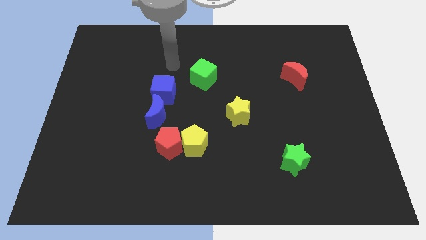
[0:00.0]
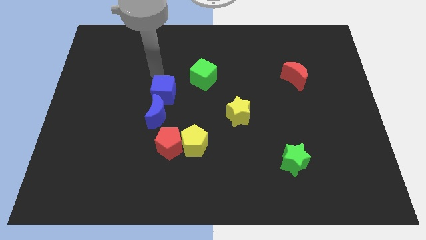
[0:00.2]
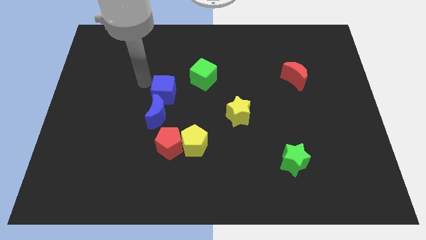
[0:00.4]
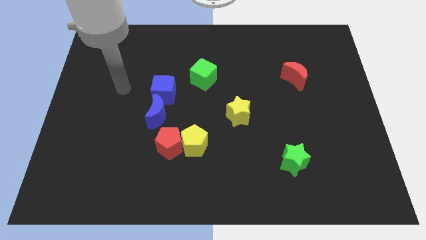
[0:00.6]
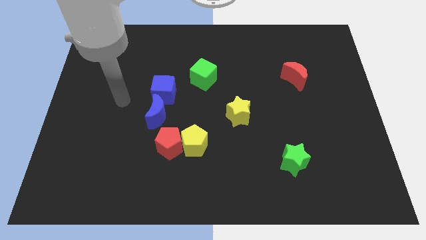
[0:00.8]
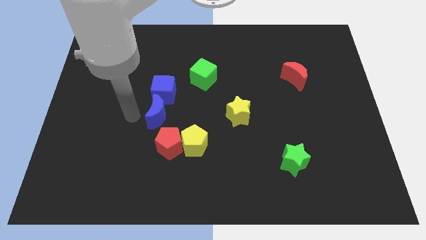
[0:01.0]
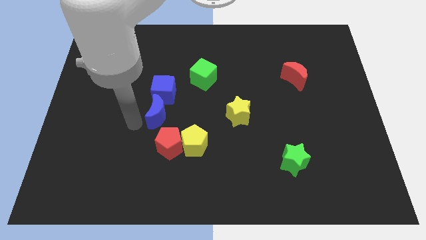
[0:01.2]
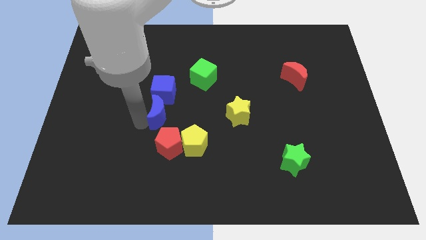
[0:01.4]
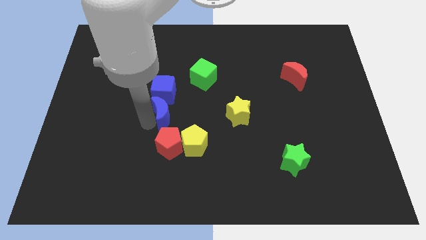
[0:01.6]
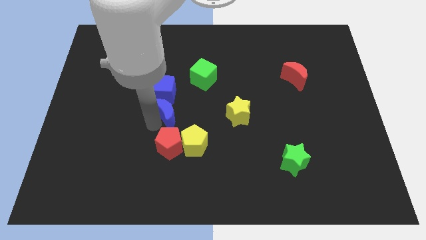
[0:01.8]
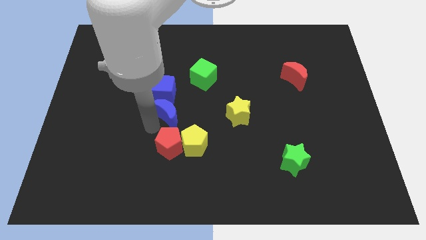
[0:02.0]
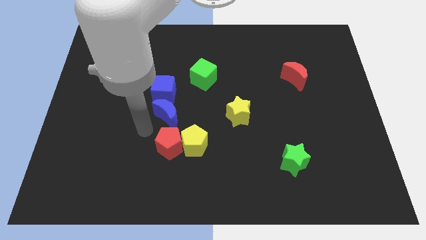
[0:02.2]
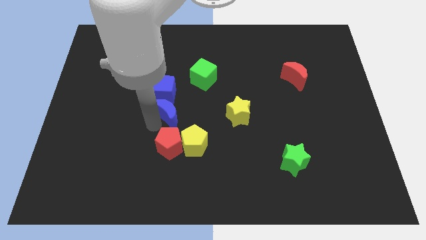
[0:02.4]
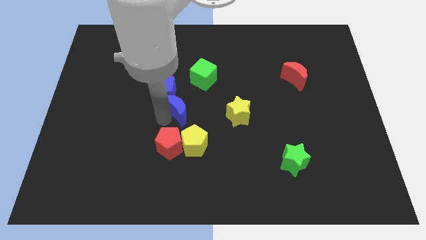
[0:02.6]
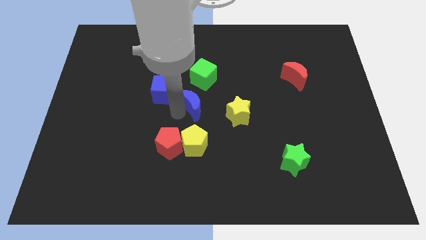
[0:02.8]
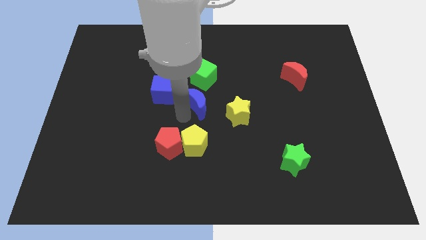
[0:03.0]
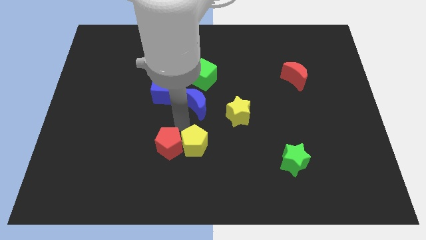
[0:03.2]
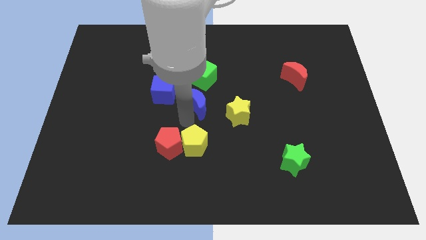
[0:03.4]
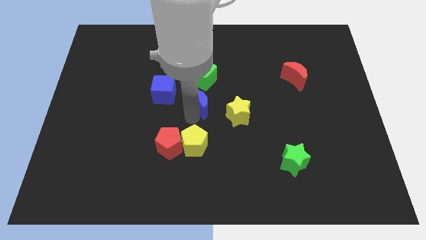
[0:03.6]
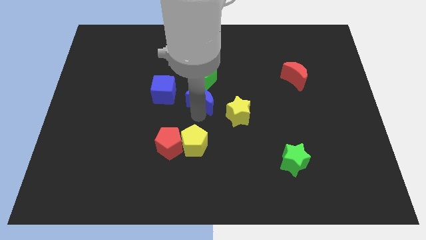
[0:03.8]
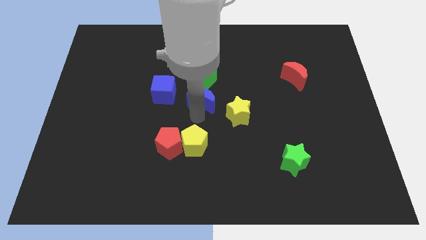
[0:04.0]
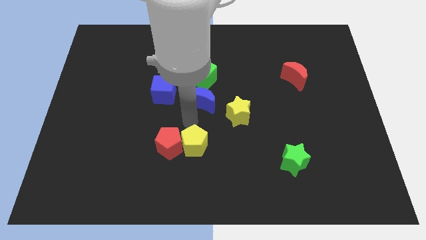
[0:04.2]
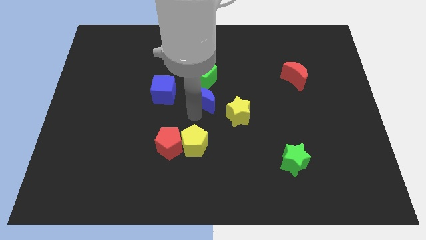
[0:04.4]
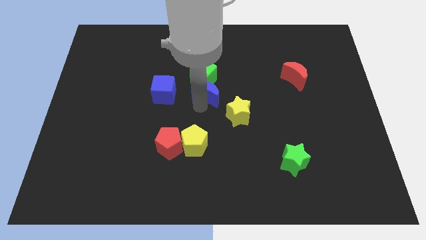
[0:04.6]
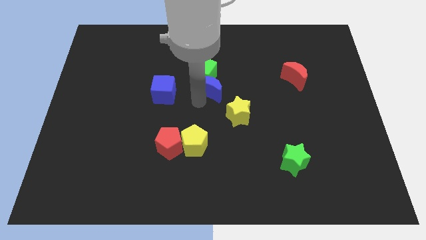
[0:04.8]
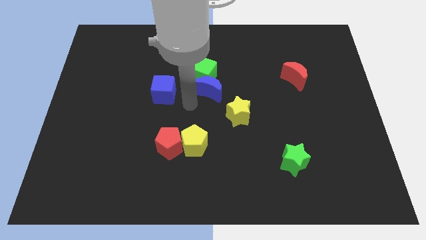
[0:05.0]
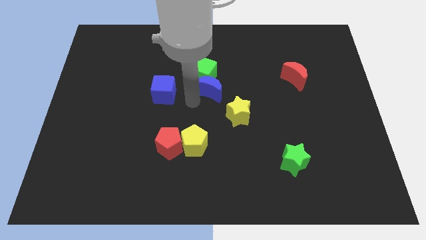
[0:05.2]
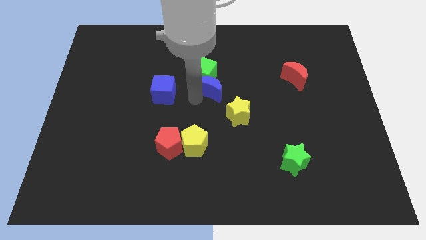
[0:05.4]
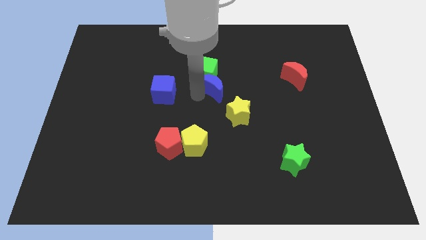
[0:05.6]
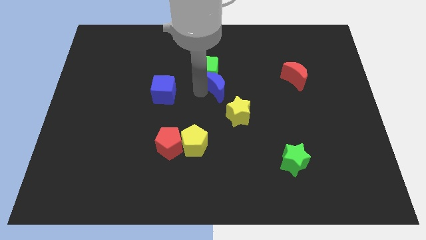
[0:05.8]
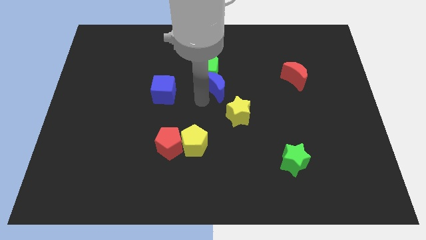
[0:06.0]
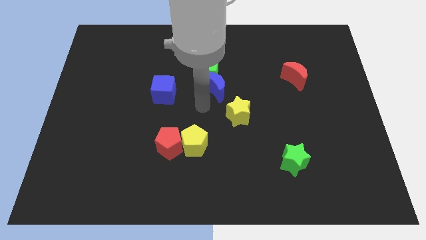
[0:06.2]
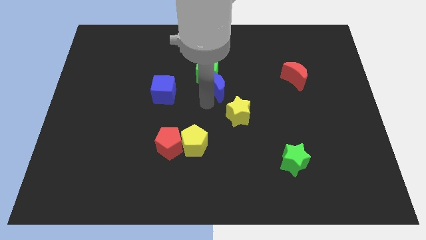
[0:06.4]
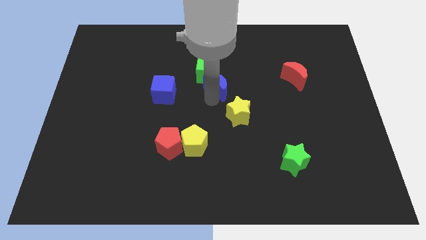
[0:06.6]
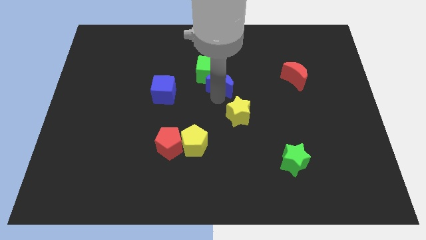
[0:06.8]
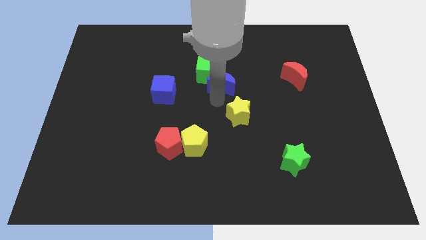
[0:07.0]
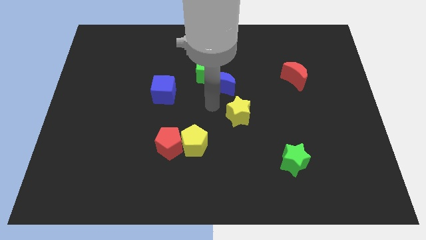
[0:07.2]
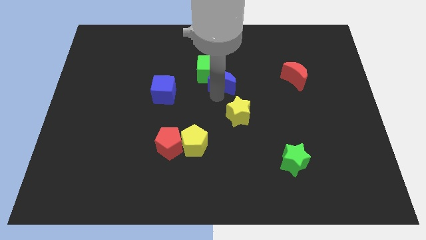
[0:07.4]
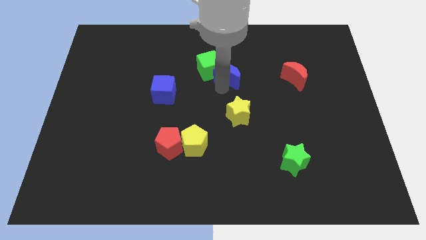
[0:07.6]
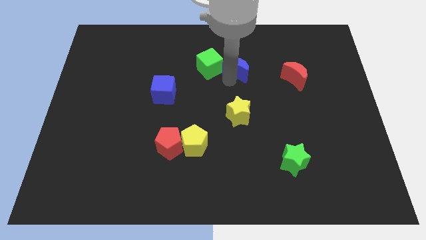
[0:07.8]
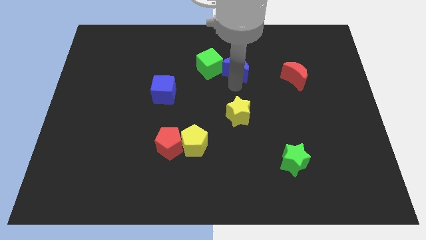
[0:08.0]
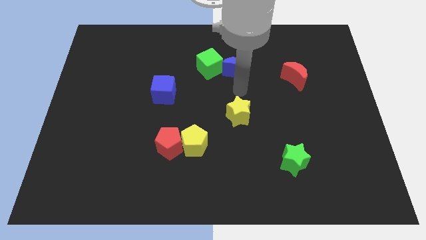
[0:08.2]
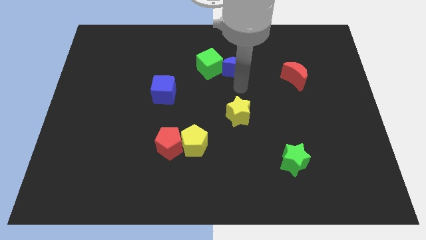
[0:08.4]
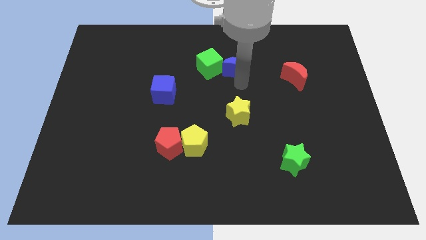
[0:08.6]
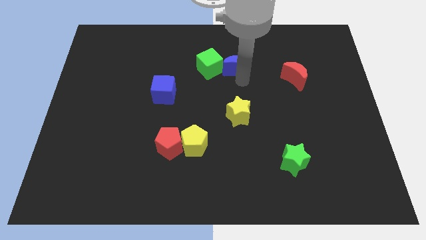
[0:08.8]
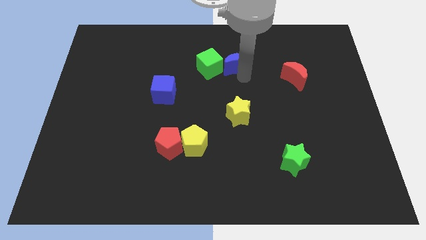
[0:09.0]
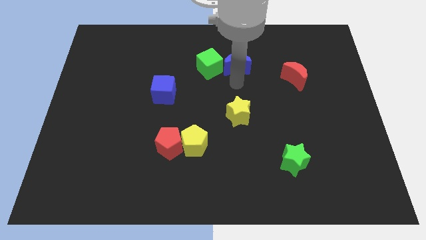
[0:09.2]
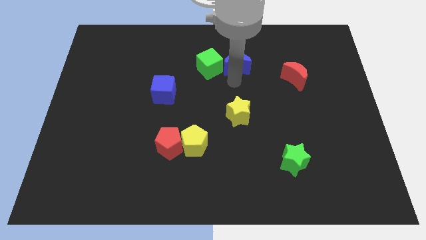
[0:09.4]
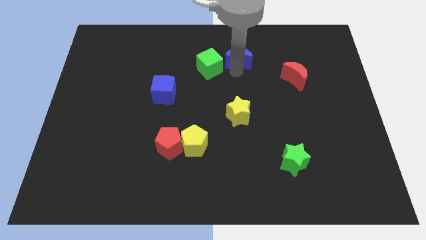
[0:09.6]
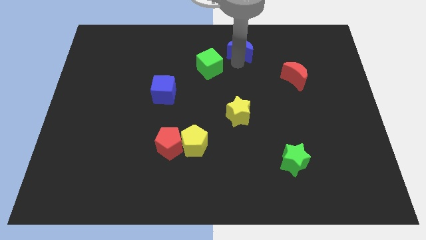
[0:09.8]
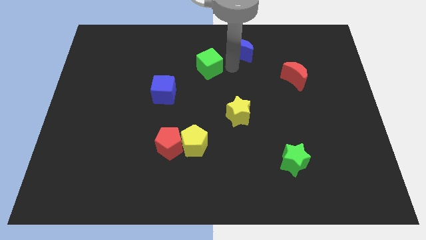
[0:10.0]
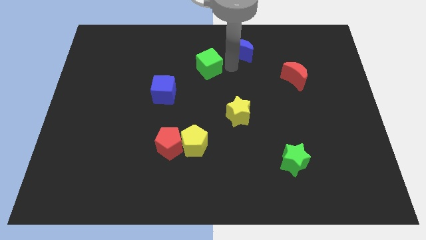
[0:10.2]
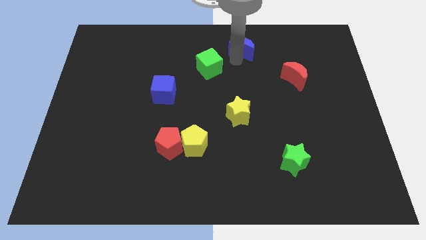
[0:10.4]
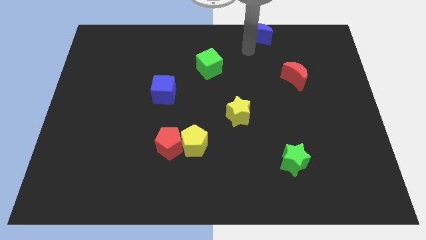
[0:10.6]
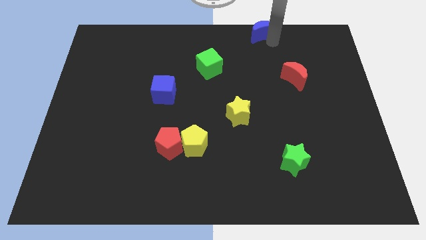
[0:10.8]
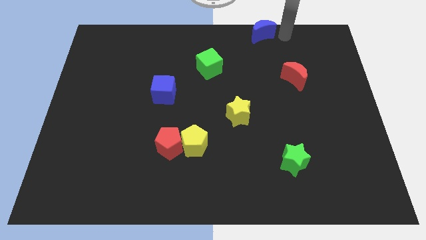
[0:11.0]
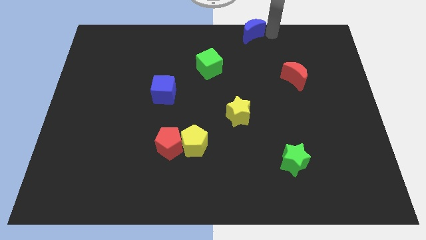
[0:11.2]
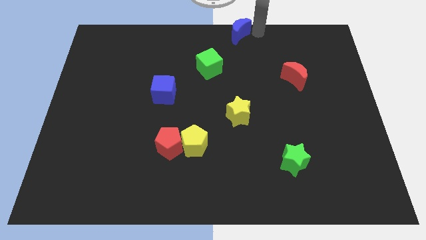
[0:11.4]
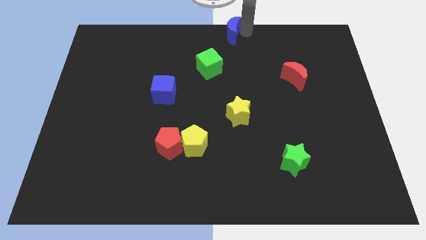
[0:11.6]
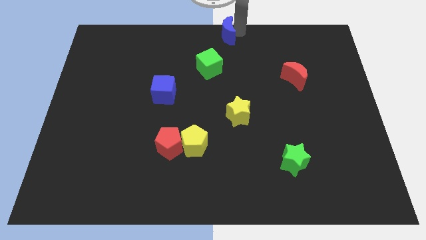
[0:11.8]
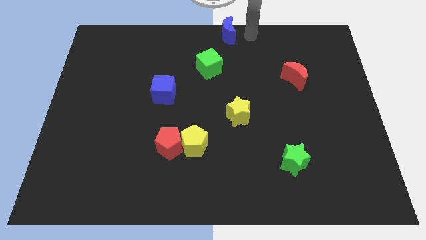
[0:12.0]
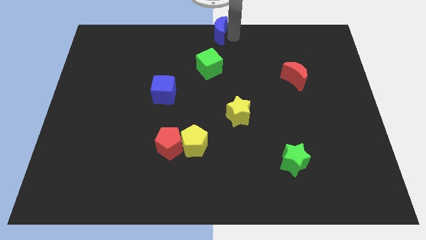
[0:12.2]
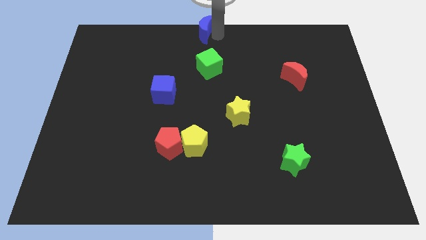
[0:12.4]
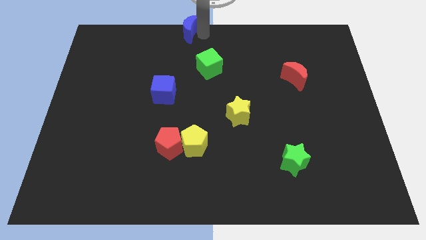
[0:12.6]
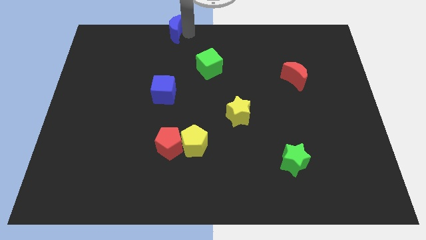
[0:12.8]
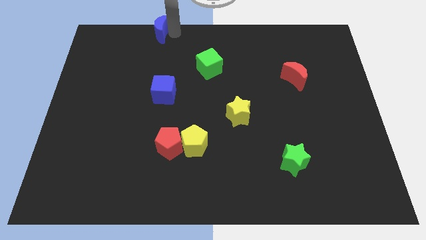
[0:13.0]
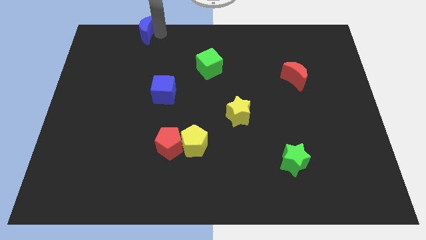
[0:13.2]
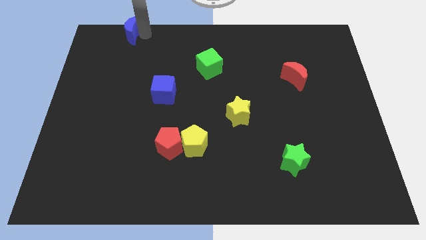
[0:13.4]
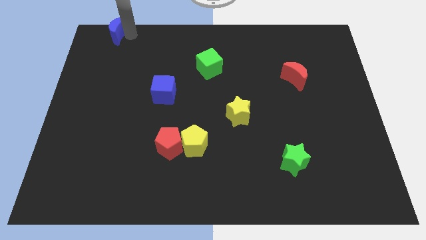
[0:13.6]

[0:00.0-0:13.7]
push the blue moon to the top left of the board
